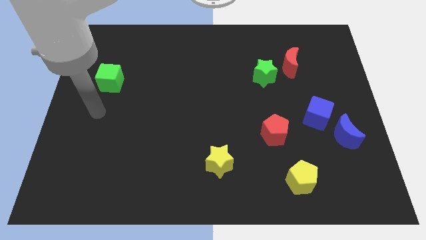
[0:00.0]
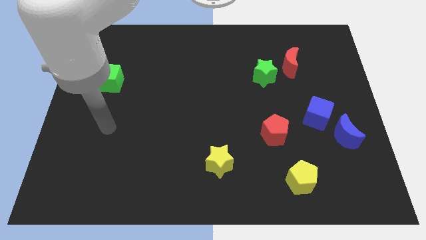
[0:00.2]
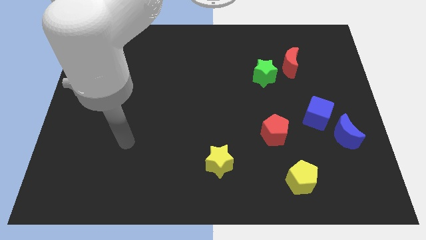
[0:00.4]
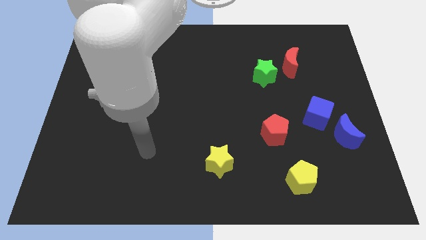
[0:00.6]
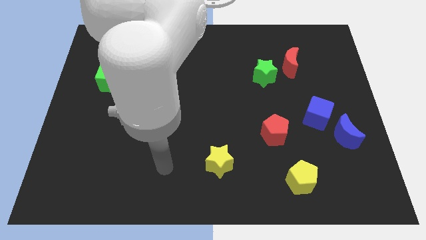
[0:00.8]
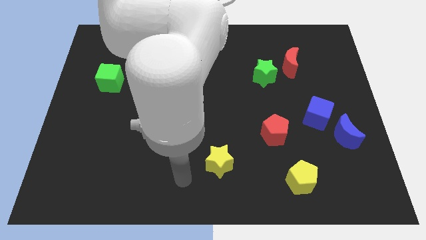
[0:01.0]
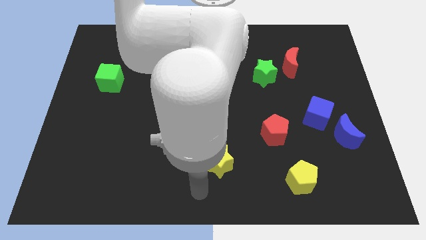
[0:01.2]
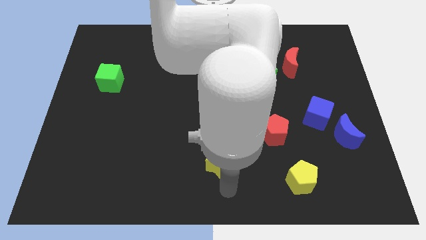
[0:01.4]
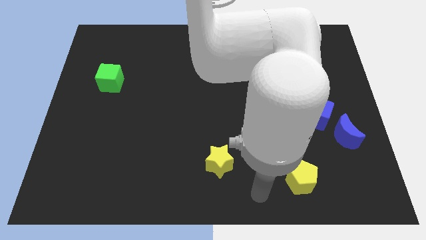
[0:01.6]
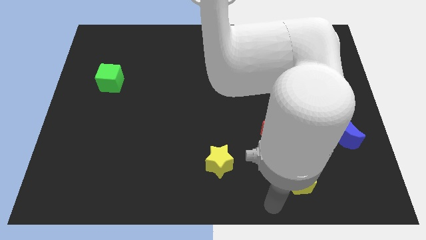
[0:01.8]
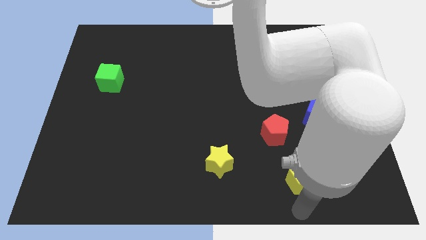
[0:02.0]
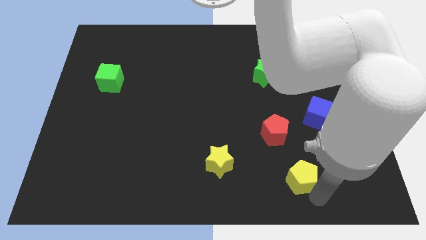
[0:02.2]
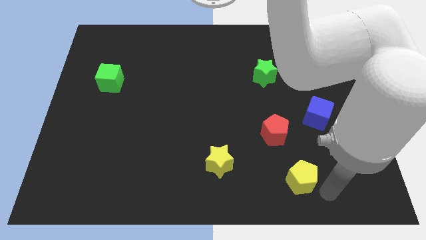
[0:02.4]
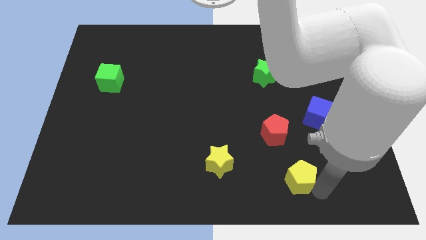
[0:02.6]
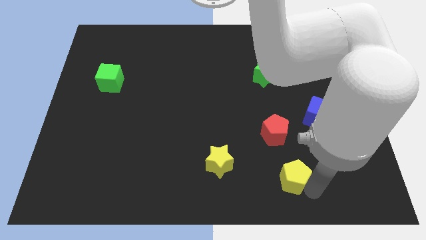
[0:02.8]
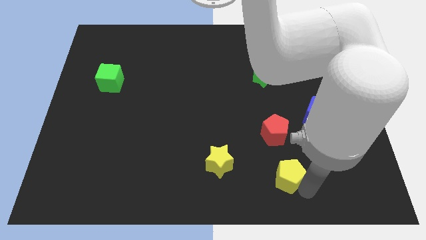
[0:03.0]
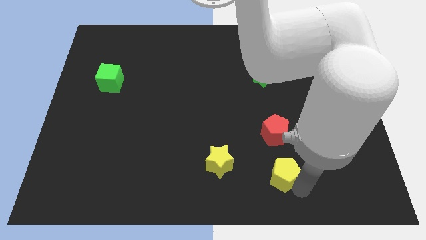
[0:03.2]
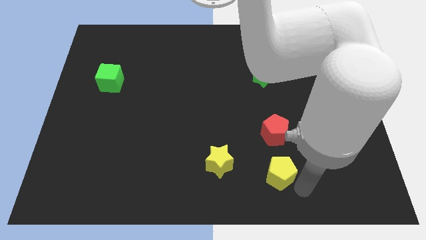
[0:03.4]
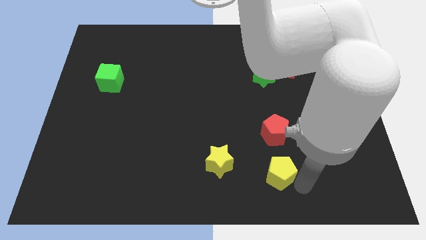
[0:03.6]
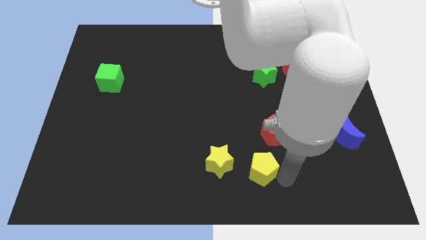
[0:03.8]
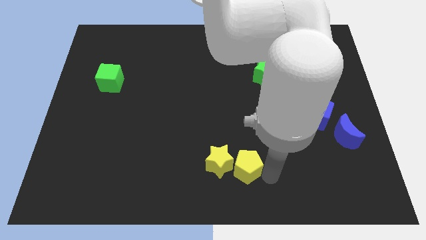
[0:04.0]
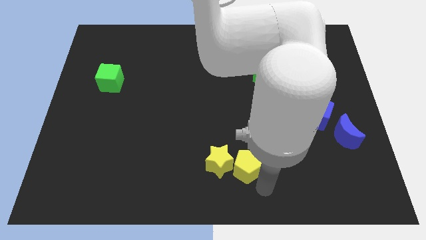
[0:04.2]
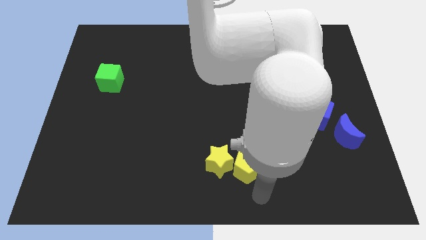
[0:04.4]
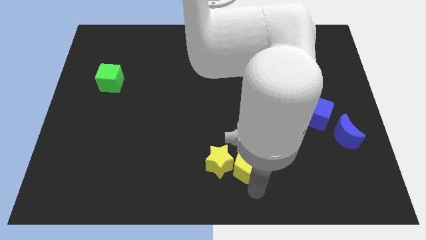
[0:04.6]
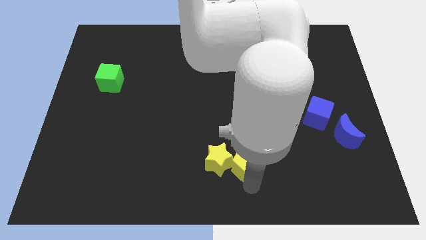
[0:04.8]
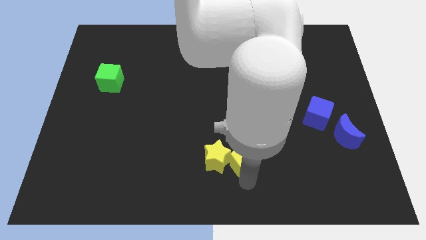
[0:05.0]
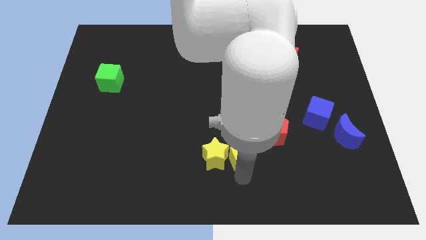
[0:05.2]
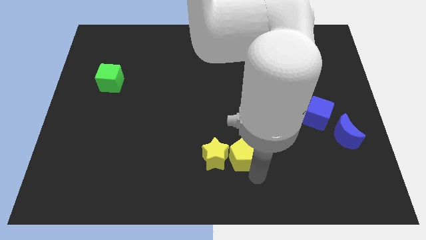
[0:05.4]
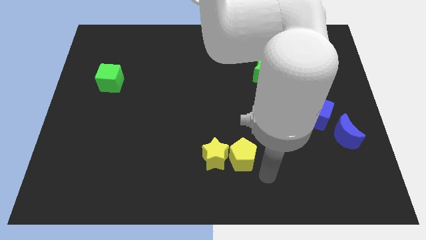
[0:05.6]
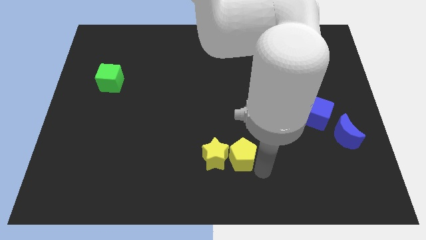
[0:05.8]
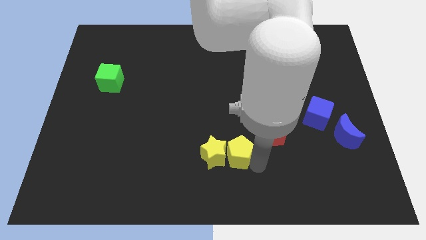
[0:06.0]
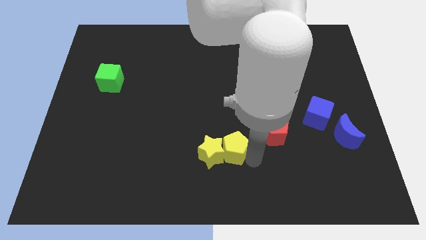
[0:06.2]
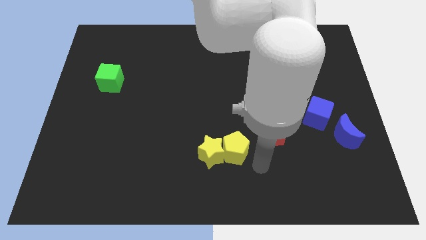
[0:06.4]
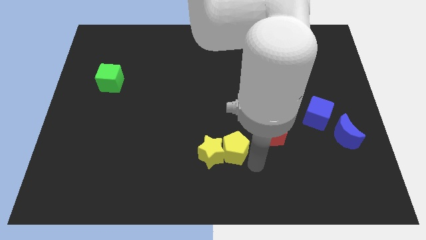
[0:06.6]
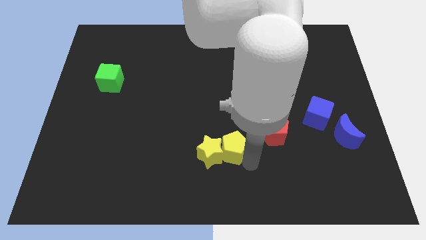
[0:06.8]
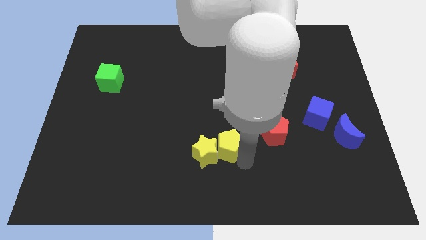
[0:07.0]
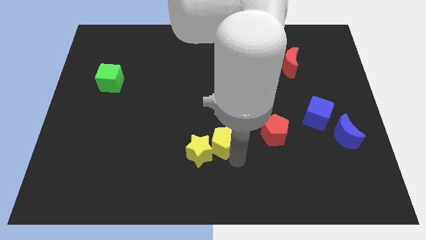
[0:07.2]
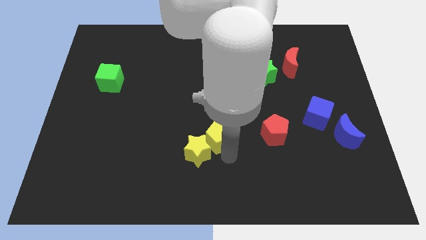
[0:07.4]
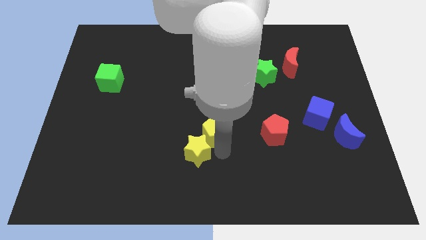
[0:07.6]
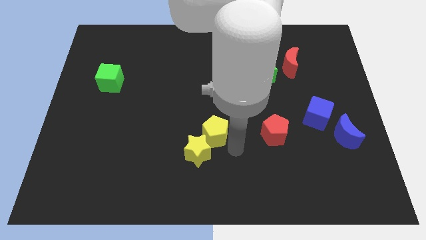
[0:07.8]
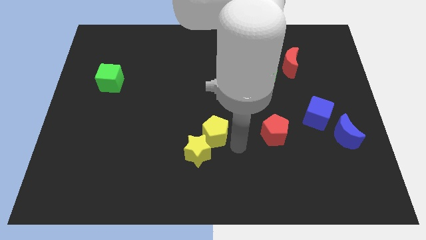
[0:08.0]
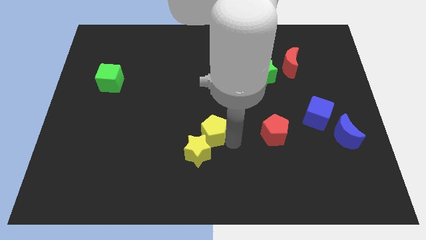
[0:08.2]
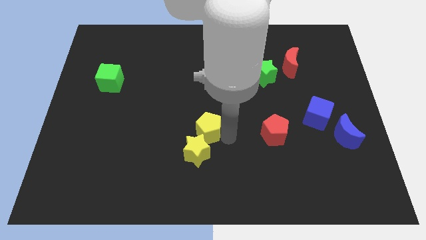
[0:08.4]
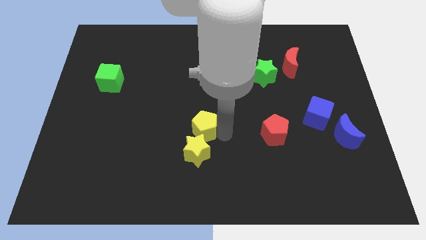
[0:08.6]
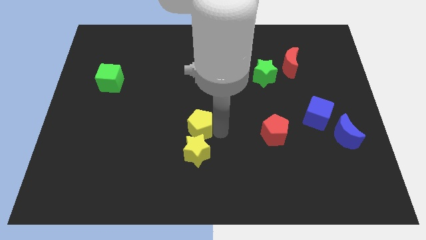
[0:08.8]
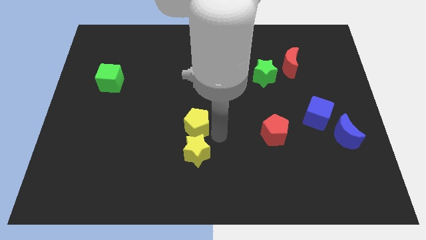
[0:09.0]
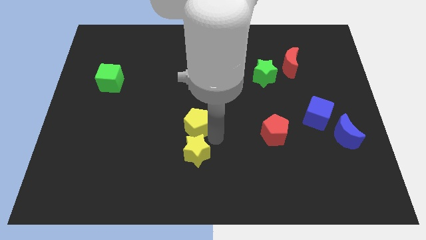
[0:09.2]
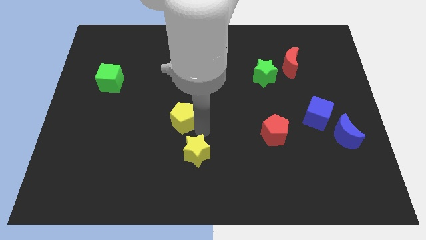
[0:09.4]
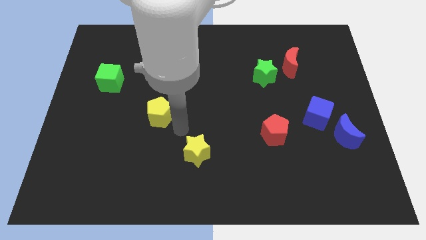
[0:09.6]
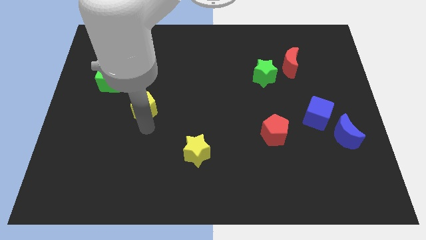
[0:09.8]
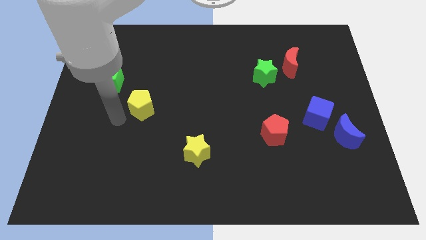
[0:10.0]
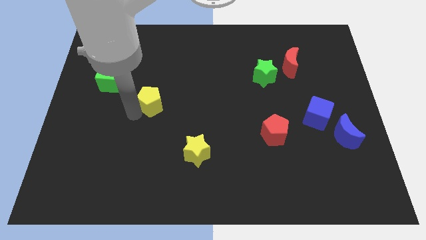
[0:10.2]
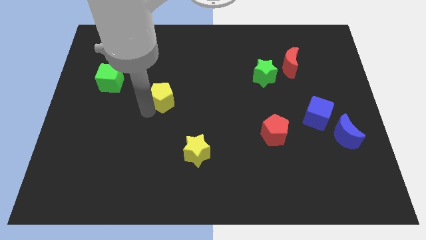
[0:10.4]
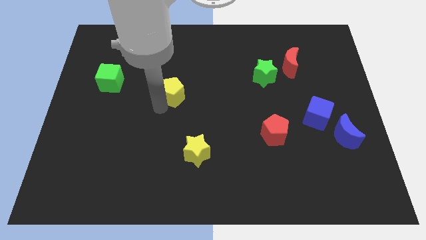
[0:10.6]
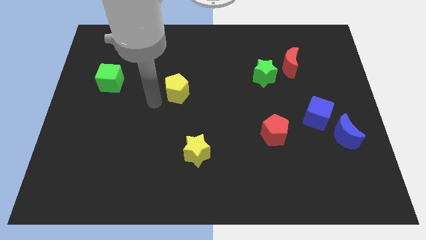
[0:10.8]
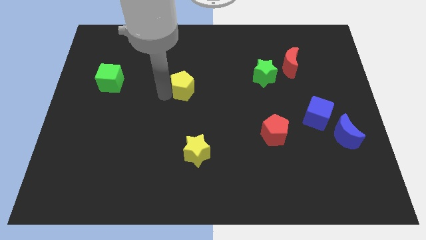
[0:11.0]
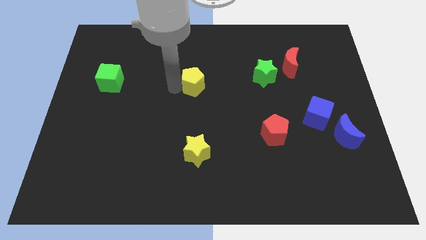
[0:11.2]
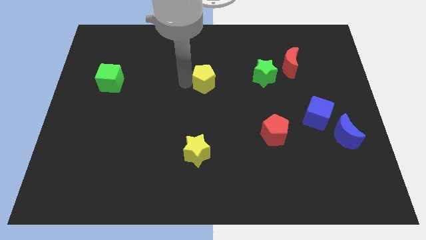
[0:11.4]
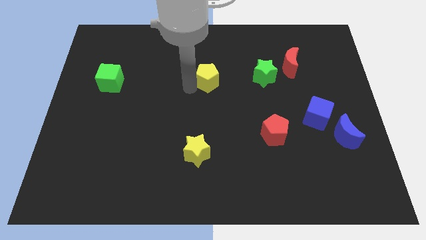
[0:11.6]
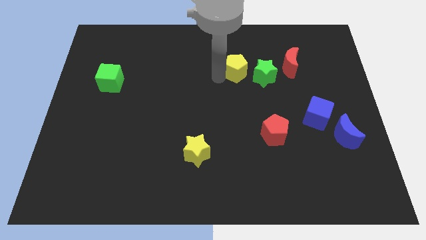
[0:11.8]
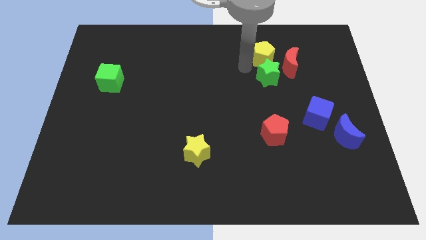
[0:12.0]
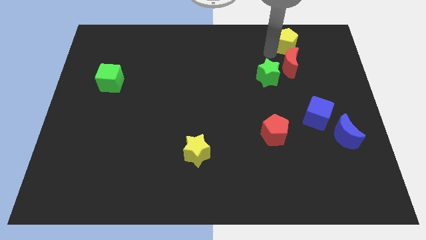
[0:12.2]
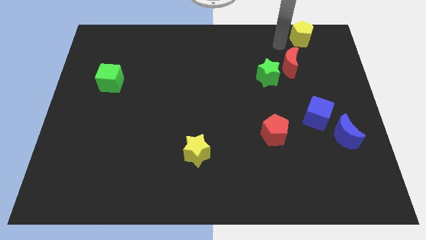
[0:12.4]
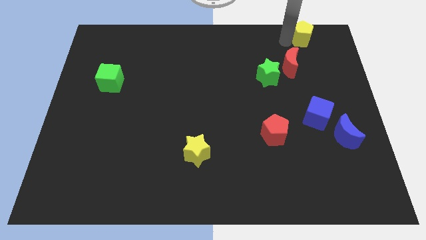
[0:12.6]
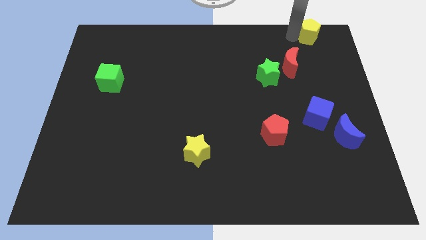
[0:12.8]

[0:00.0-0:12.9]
move the yellow pentagon to the top right of the board

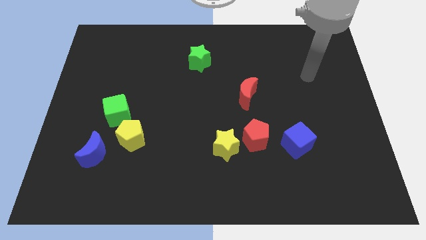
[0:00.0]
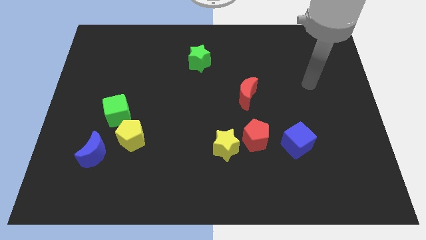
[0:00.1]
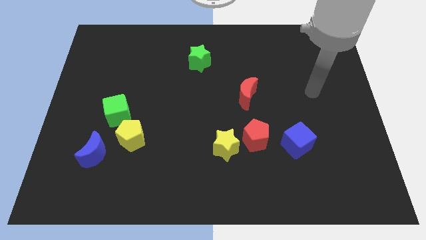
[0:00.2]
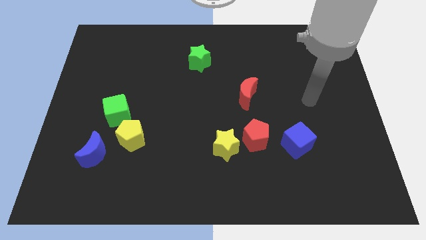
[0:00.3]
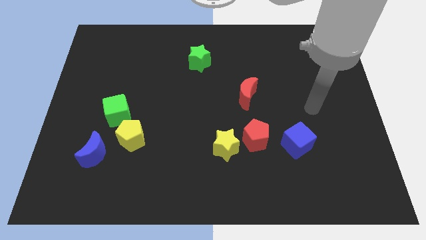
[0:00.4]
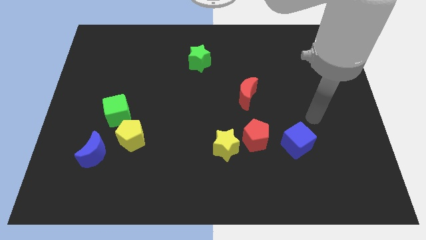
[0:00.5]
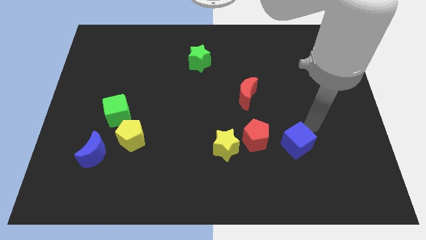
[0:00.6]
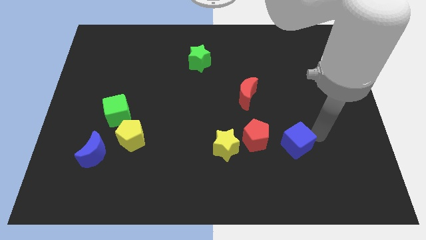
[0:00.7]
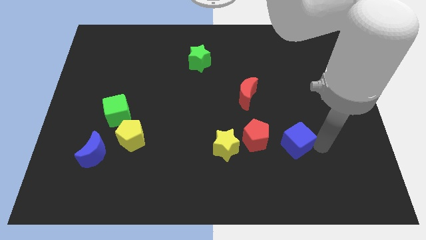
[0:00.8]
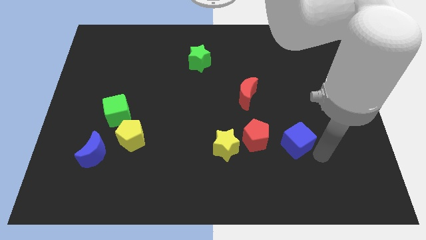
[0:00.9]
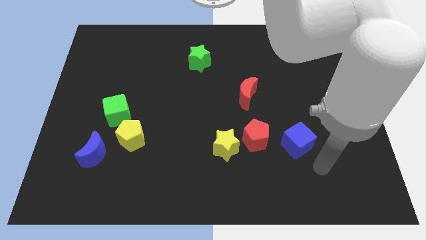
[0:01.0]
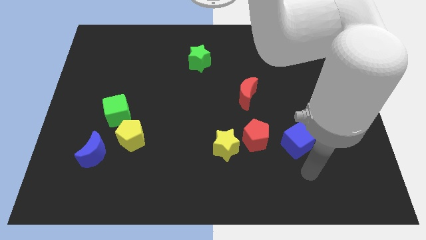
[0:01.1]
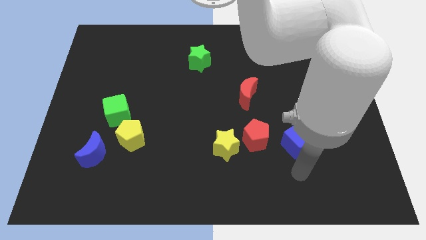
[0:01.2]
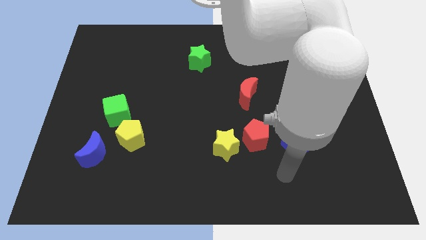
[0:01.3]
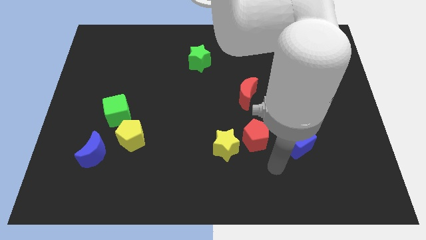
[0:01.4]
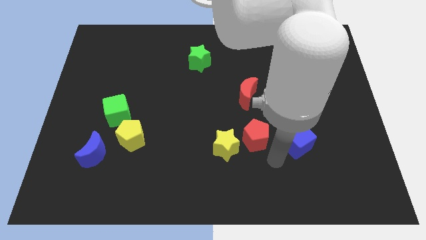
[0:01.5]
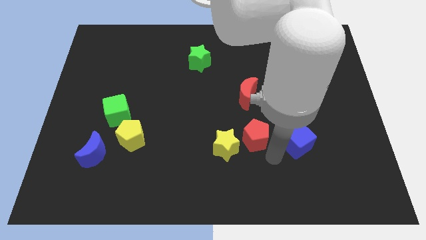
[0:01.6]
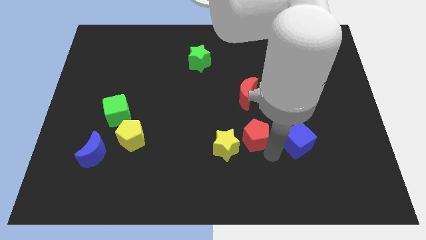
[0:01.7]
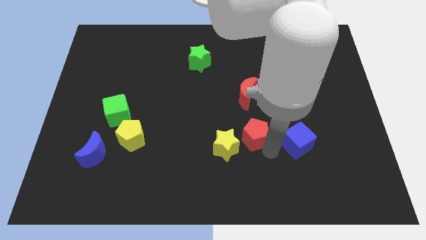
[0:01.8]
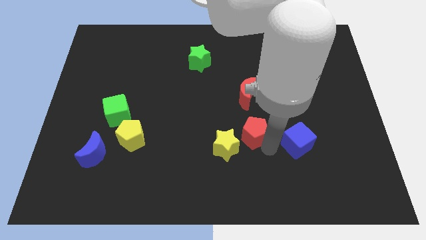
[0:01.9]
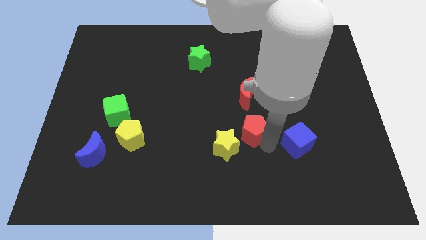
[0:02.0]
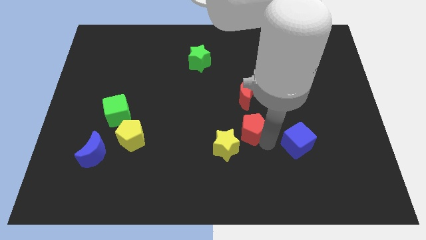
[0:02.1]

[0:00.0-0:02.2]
slide the red pentagon to the center of the board
